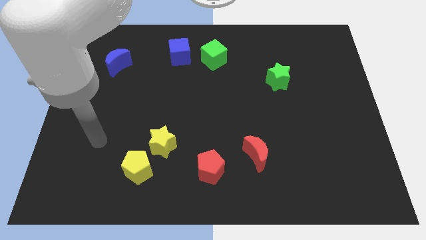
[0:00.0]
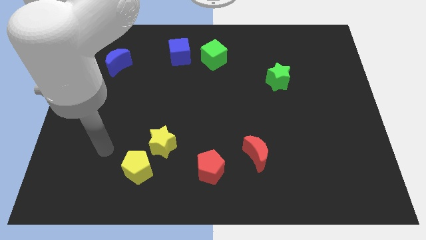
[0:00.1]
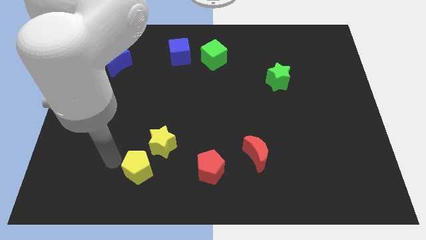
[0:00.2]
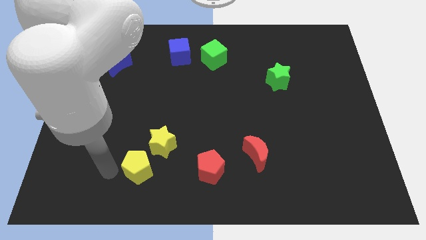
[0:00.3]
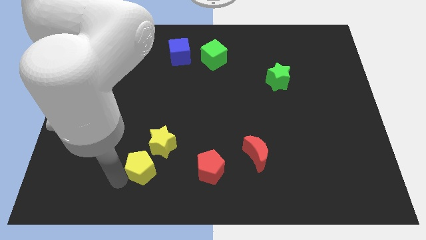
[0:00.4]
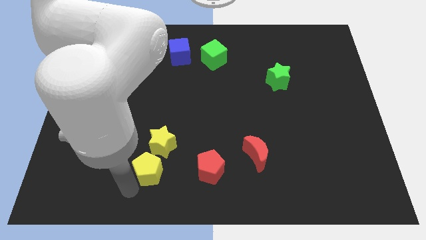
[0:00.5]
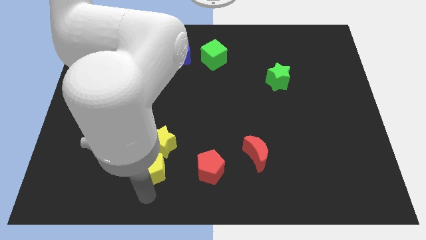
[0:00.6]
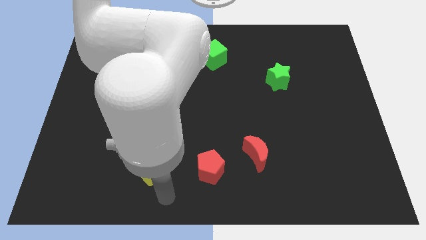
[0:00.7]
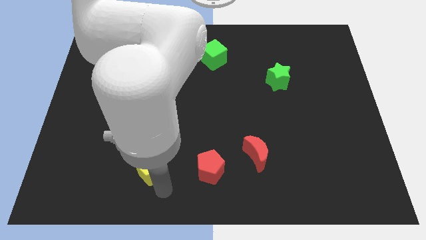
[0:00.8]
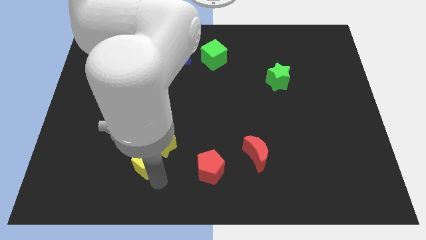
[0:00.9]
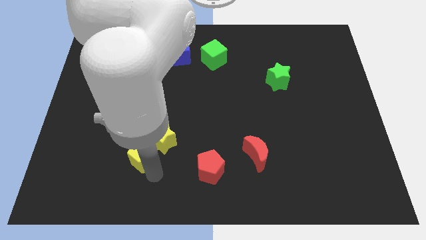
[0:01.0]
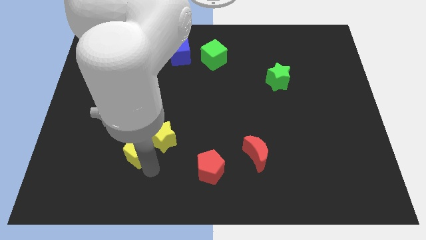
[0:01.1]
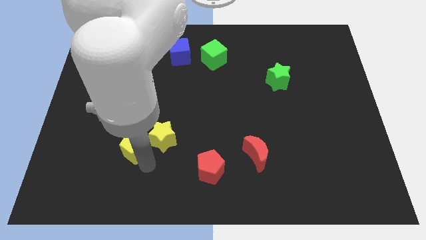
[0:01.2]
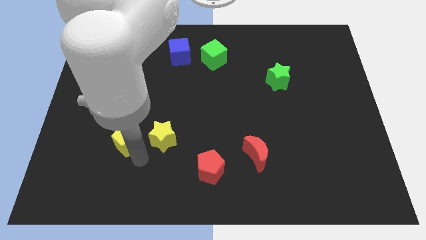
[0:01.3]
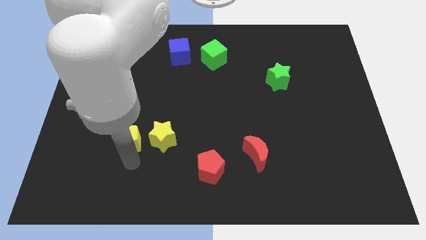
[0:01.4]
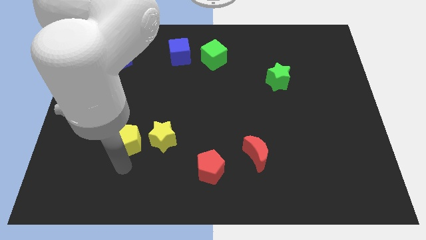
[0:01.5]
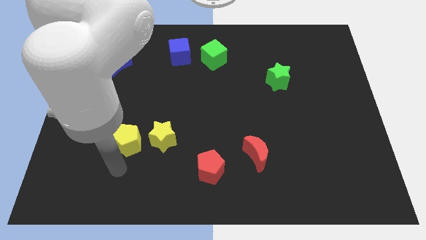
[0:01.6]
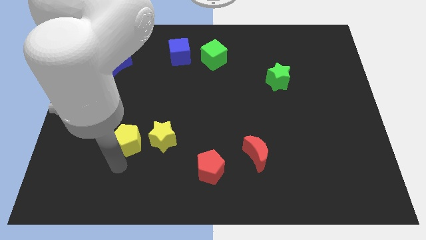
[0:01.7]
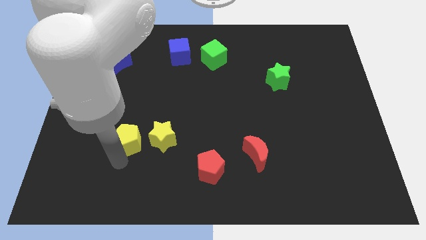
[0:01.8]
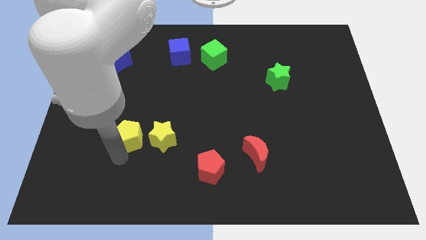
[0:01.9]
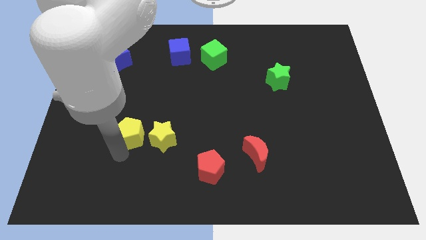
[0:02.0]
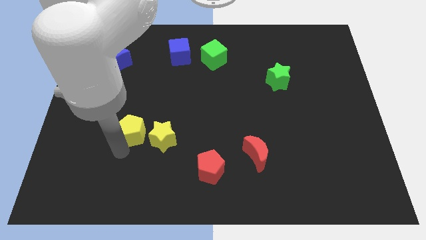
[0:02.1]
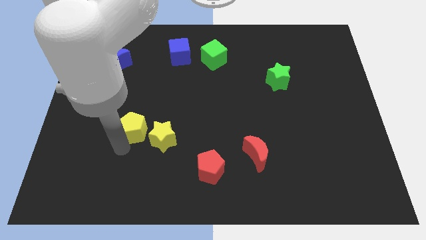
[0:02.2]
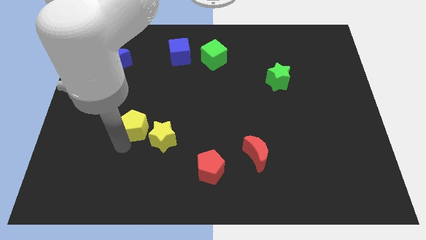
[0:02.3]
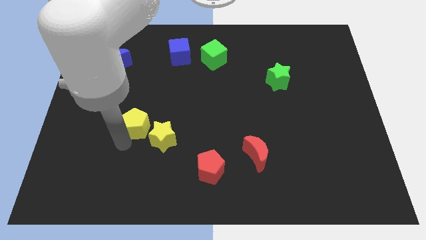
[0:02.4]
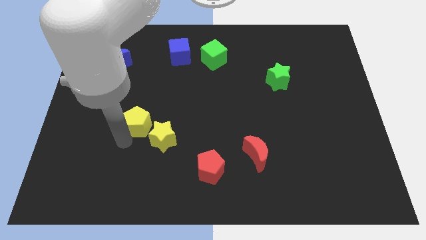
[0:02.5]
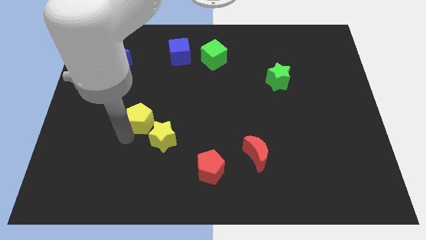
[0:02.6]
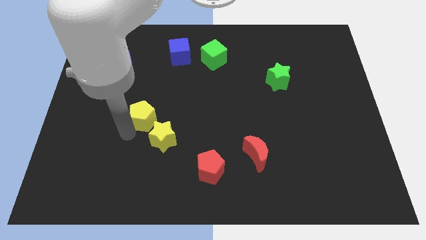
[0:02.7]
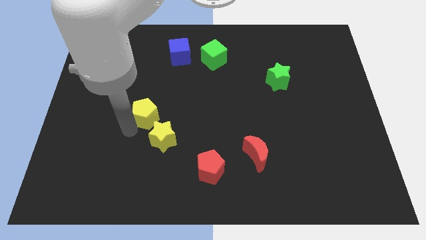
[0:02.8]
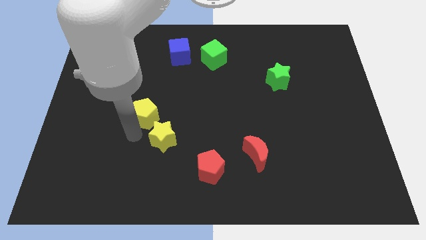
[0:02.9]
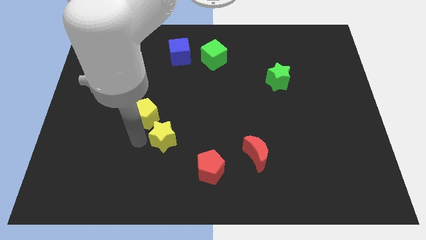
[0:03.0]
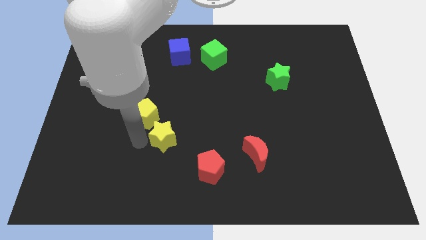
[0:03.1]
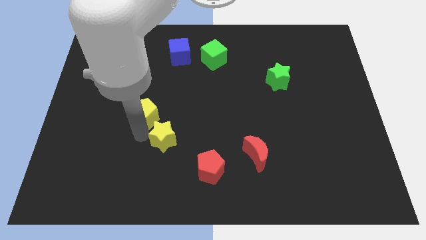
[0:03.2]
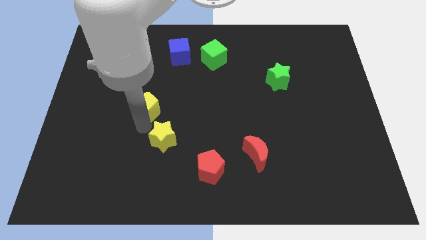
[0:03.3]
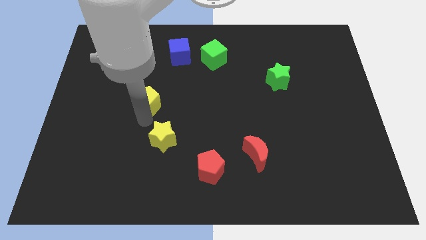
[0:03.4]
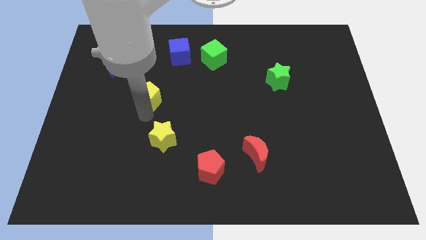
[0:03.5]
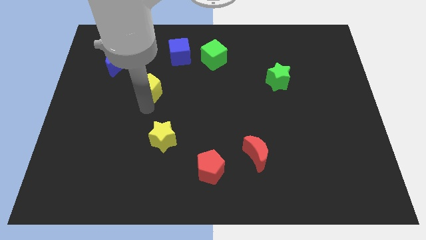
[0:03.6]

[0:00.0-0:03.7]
push the yellow pentagon up

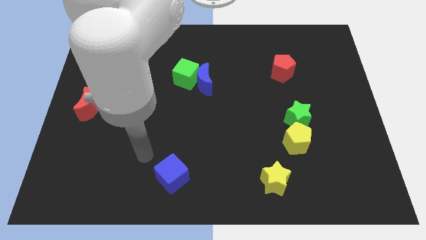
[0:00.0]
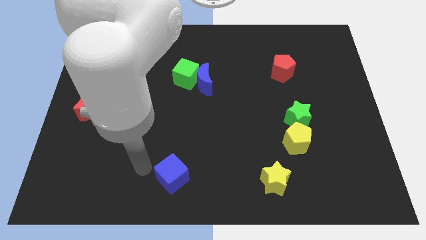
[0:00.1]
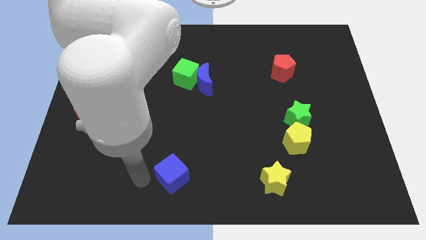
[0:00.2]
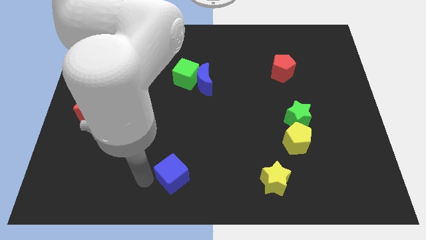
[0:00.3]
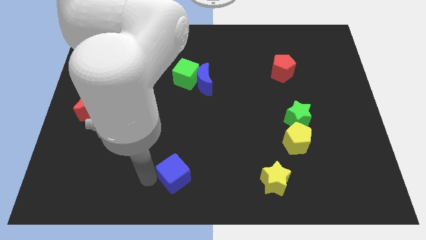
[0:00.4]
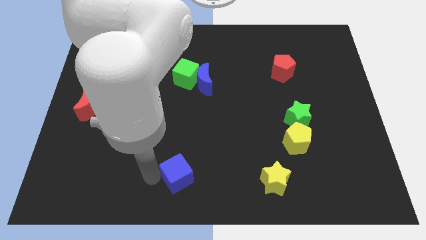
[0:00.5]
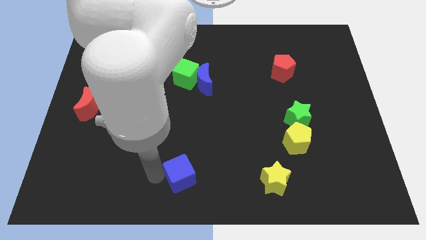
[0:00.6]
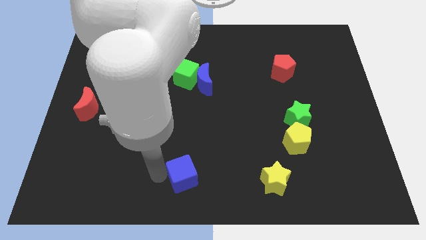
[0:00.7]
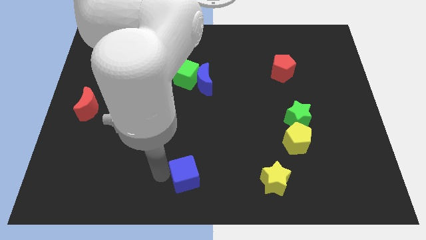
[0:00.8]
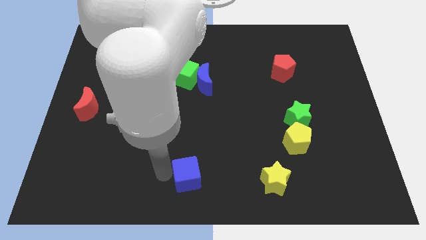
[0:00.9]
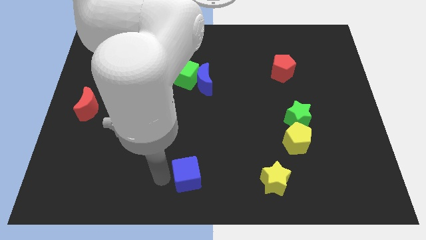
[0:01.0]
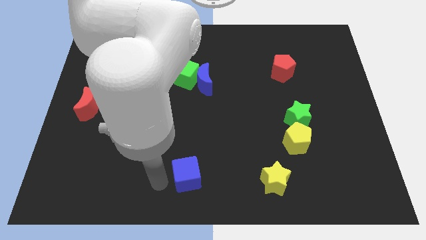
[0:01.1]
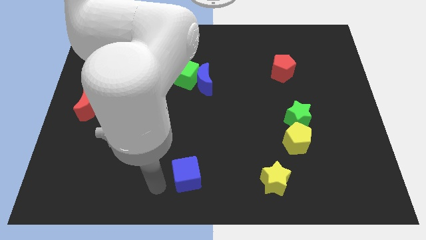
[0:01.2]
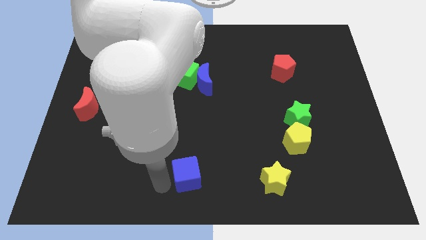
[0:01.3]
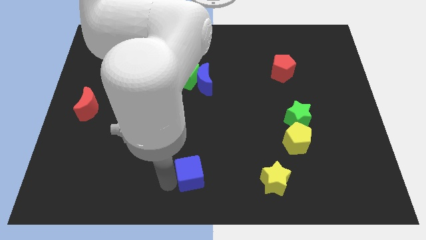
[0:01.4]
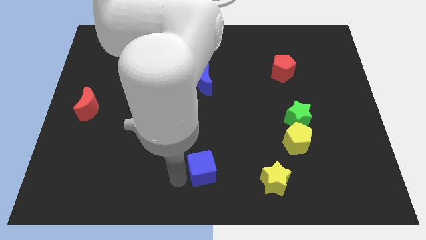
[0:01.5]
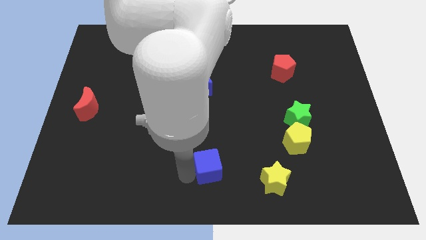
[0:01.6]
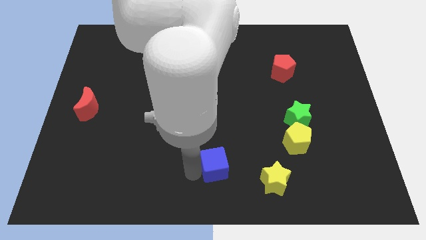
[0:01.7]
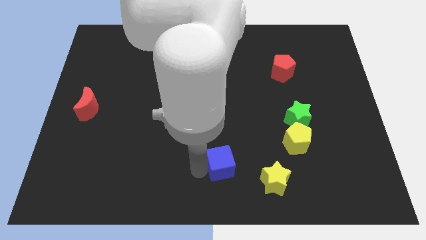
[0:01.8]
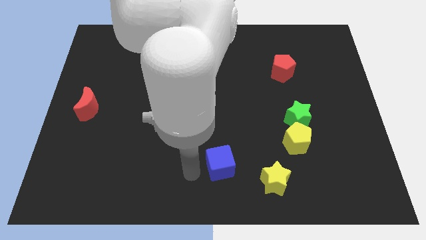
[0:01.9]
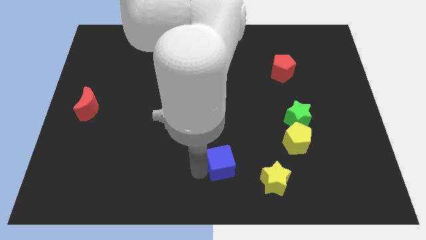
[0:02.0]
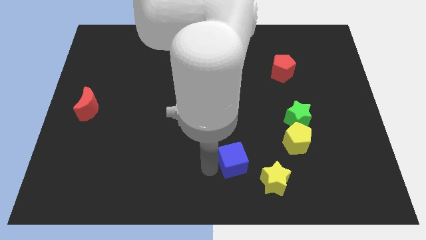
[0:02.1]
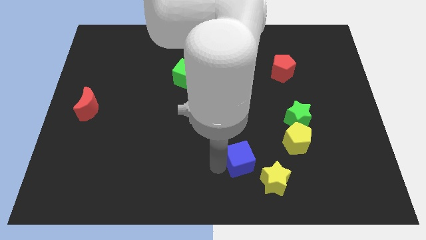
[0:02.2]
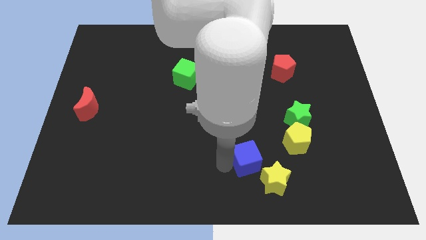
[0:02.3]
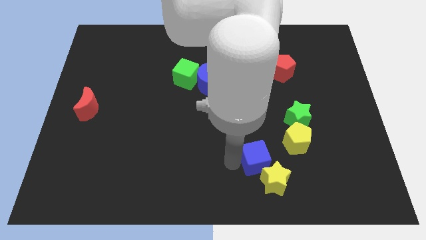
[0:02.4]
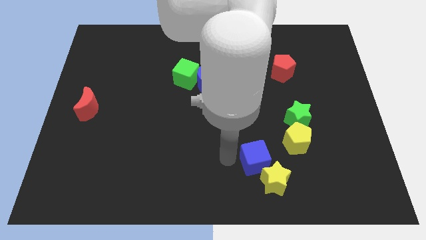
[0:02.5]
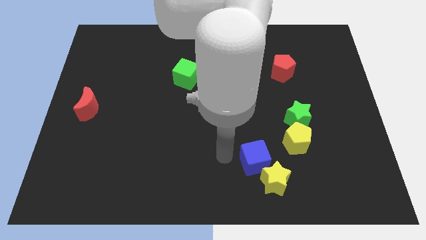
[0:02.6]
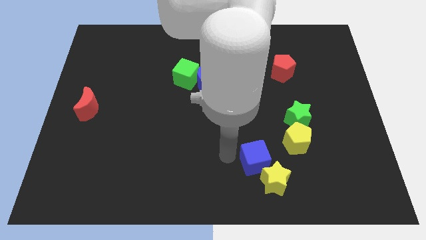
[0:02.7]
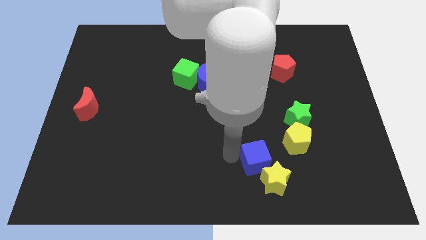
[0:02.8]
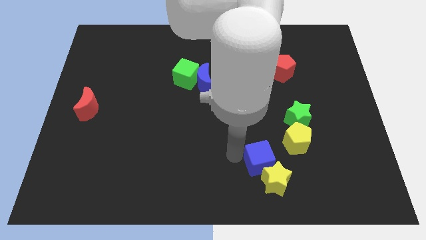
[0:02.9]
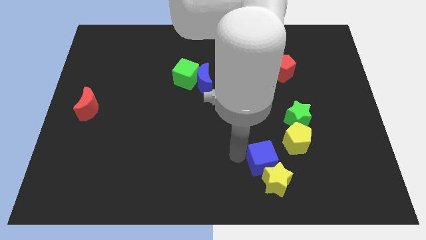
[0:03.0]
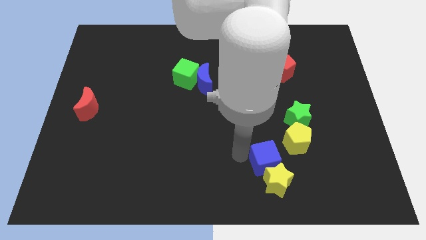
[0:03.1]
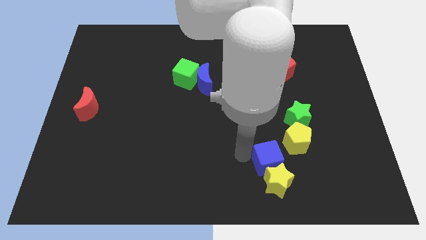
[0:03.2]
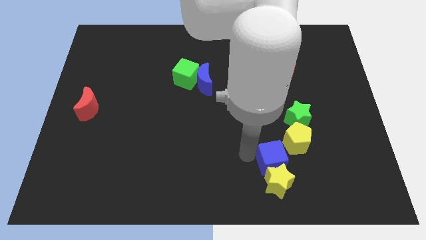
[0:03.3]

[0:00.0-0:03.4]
slide the blue cube to the right

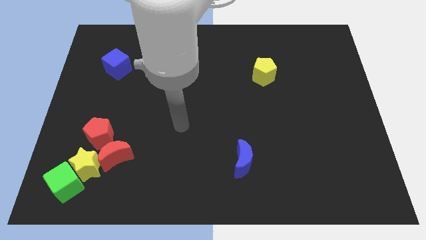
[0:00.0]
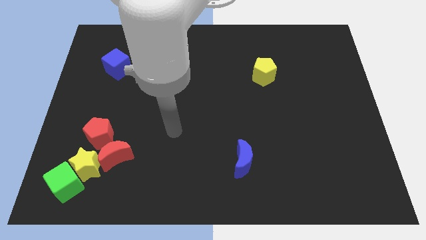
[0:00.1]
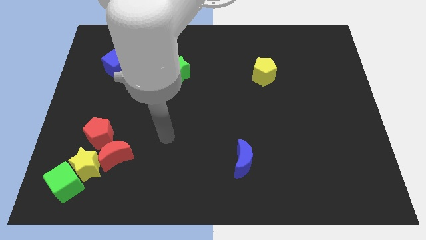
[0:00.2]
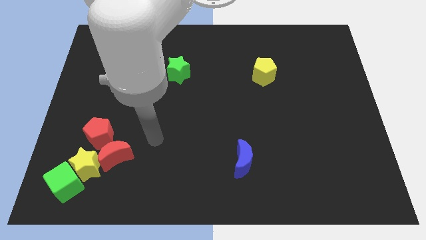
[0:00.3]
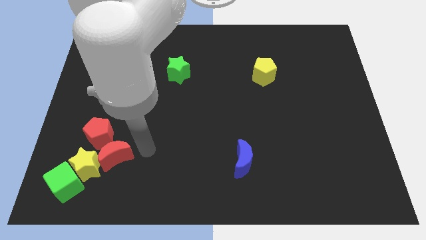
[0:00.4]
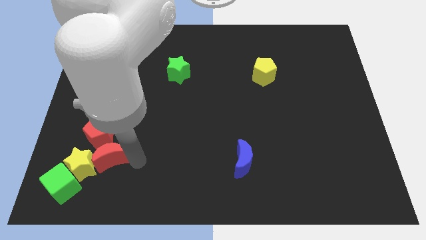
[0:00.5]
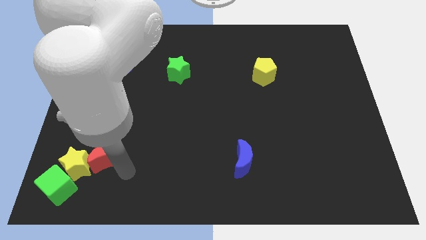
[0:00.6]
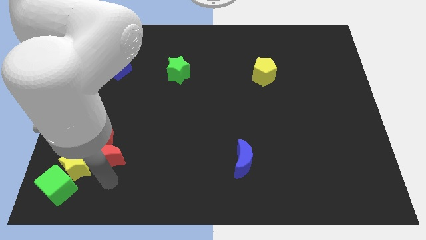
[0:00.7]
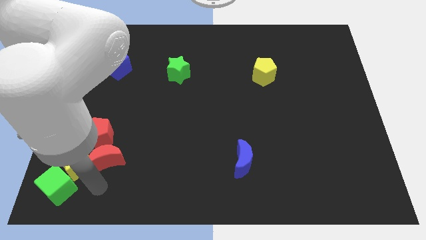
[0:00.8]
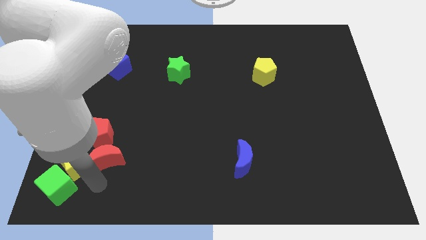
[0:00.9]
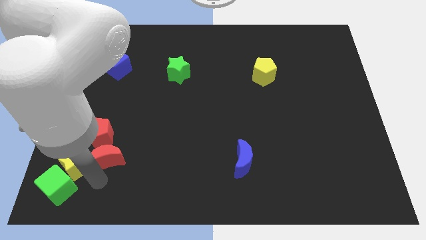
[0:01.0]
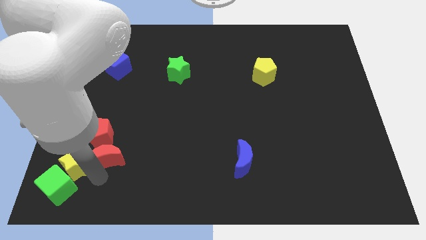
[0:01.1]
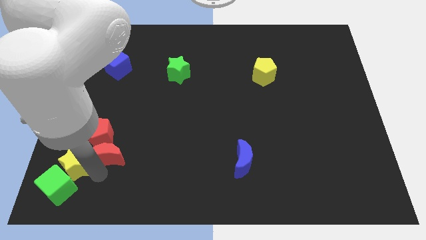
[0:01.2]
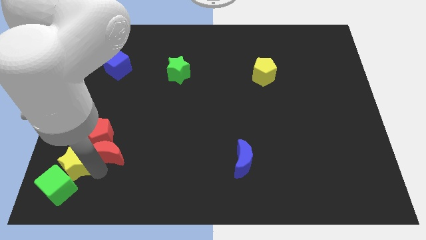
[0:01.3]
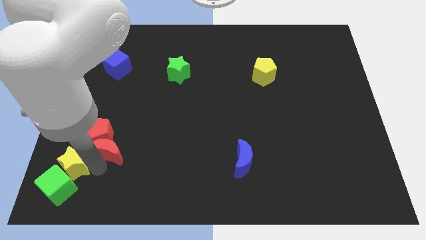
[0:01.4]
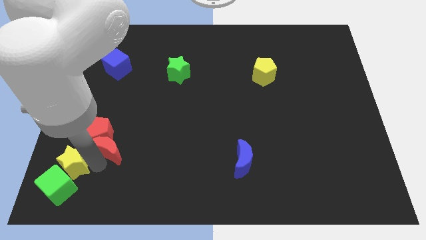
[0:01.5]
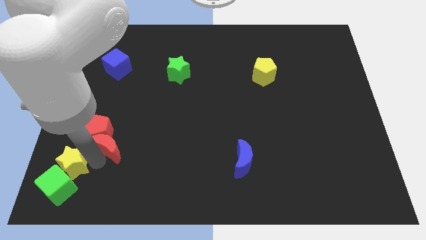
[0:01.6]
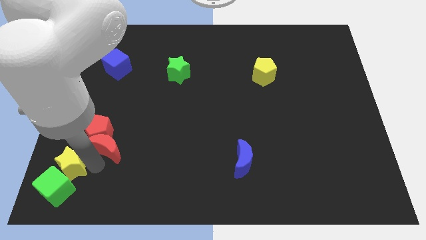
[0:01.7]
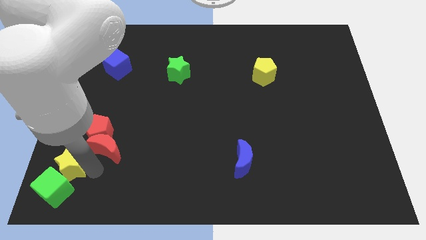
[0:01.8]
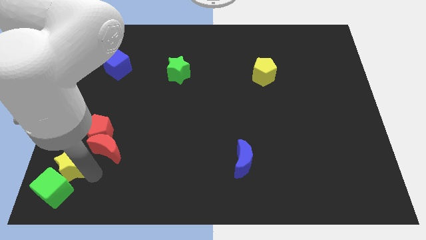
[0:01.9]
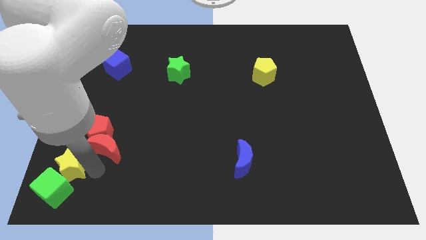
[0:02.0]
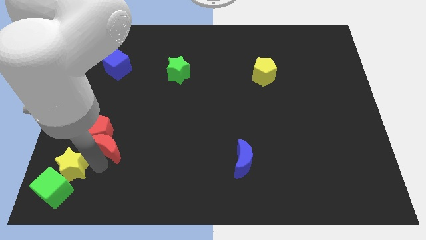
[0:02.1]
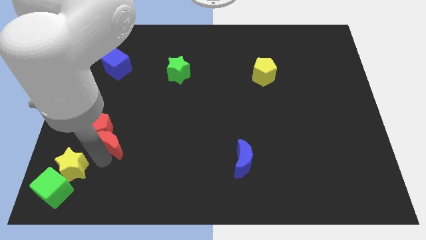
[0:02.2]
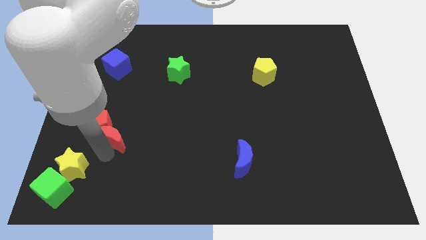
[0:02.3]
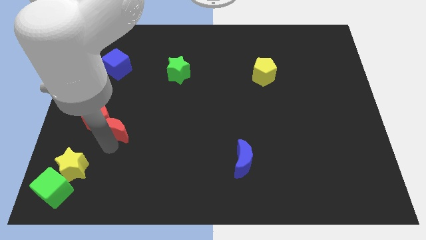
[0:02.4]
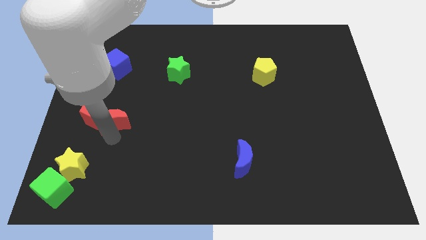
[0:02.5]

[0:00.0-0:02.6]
move the red moon a bit upwards
